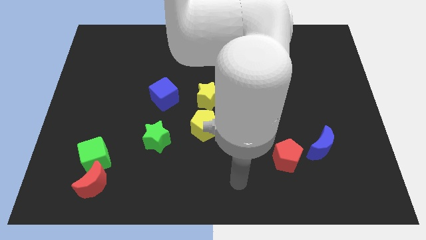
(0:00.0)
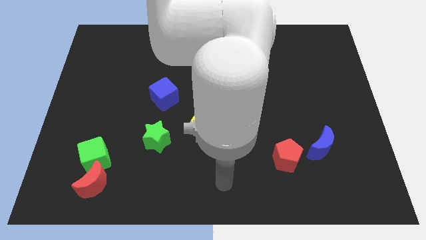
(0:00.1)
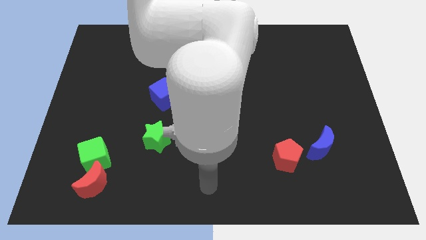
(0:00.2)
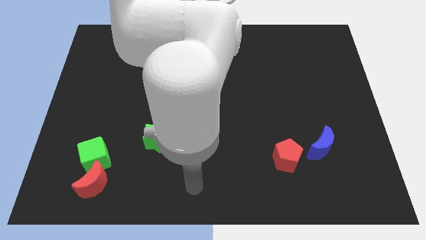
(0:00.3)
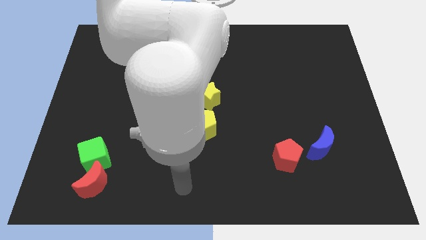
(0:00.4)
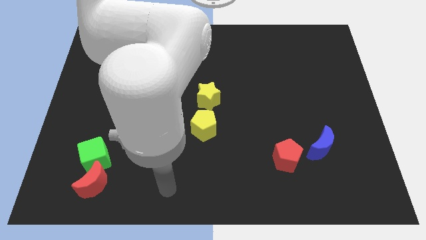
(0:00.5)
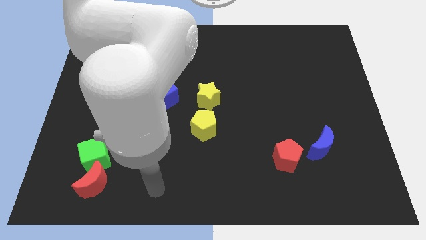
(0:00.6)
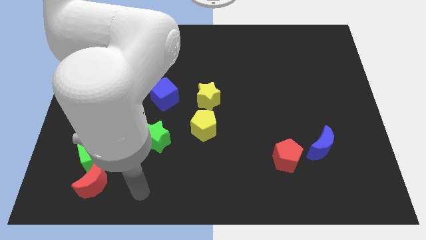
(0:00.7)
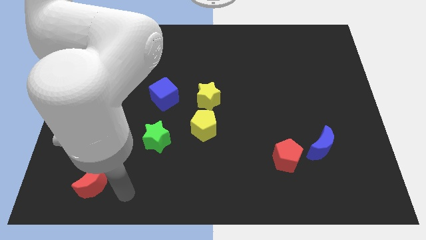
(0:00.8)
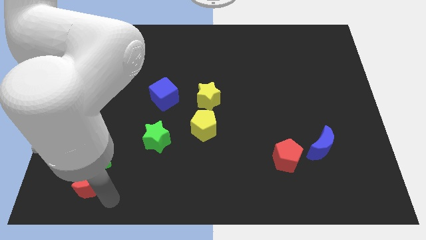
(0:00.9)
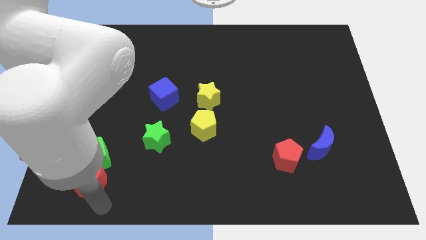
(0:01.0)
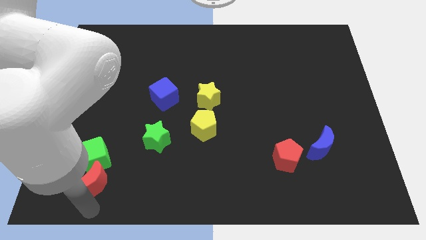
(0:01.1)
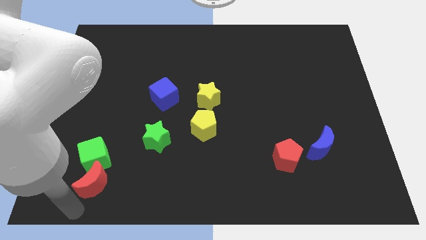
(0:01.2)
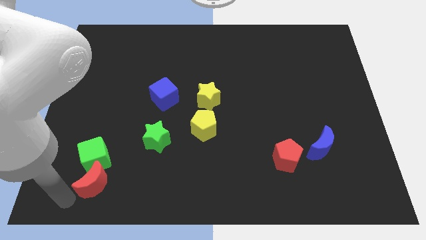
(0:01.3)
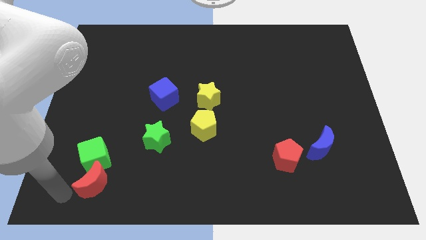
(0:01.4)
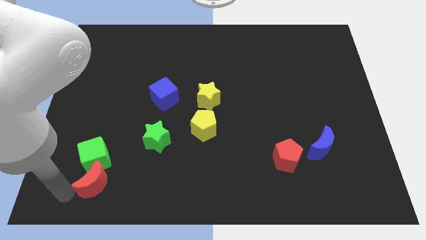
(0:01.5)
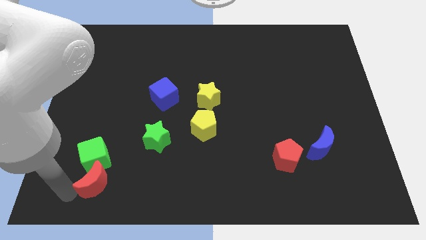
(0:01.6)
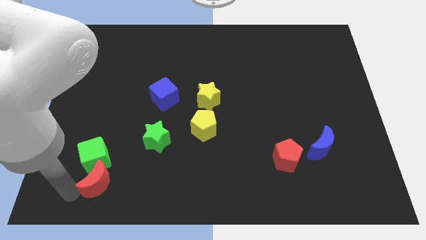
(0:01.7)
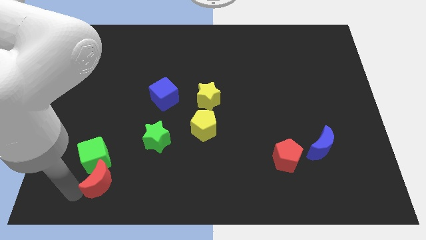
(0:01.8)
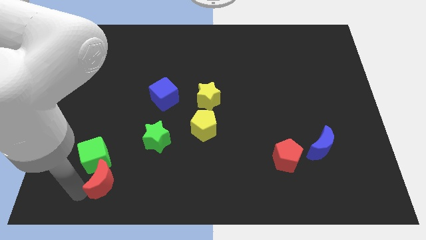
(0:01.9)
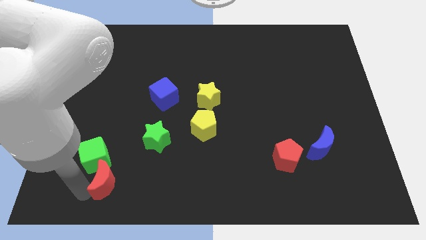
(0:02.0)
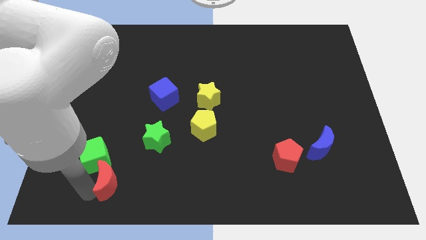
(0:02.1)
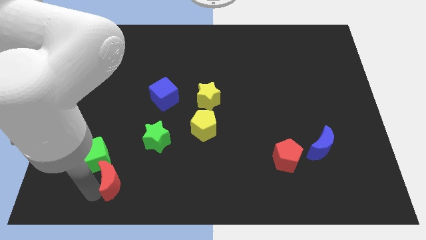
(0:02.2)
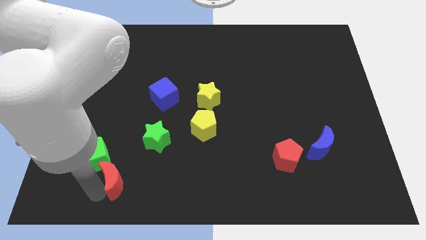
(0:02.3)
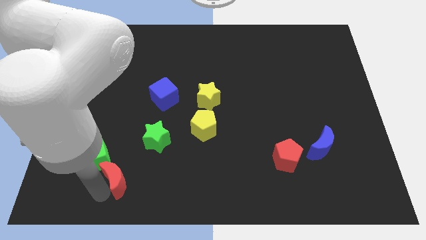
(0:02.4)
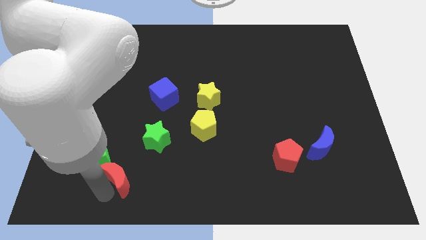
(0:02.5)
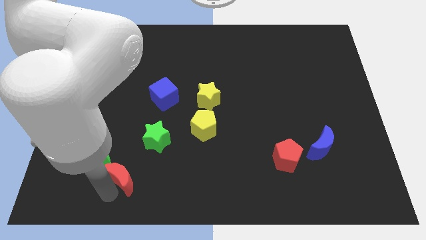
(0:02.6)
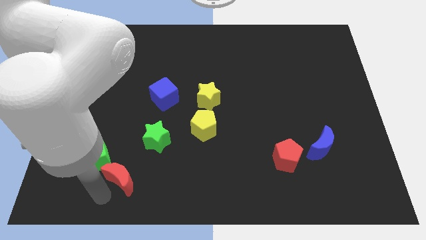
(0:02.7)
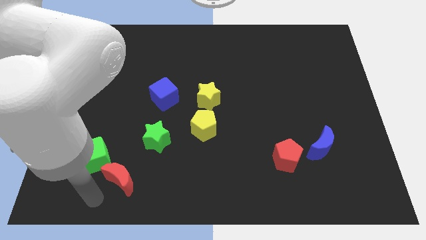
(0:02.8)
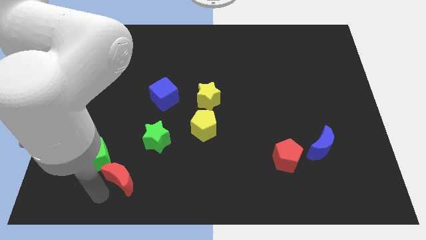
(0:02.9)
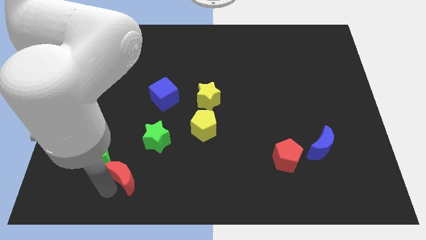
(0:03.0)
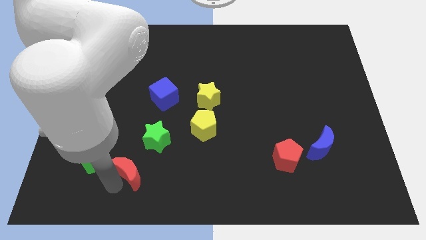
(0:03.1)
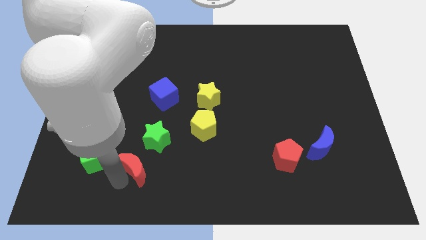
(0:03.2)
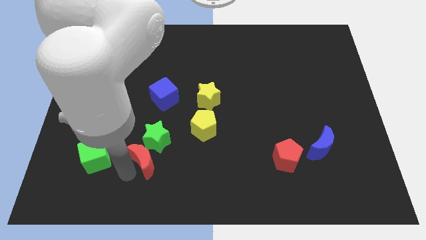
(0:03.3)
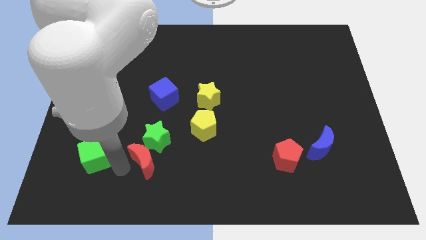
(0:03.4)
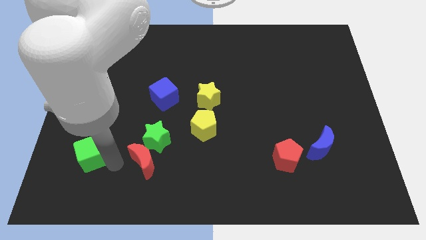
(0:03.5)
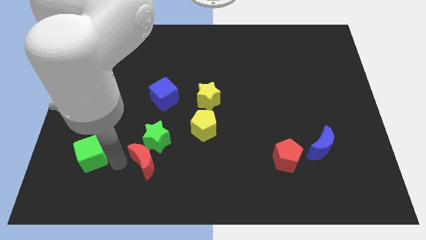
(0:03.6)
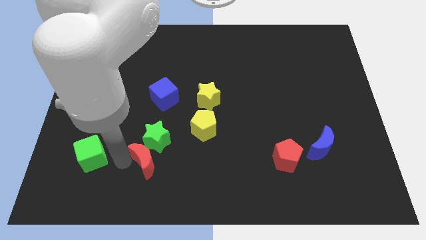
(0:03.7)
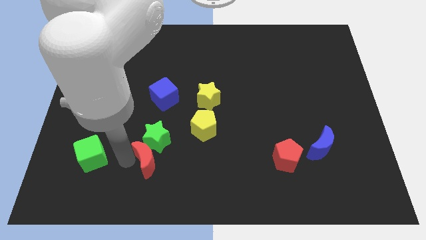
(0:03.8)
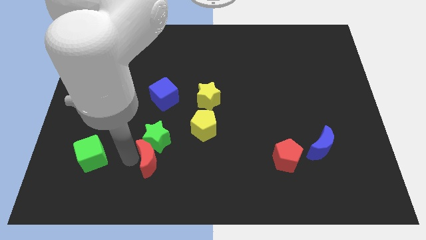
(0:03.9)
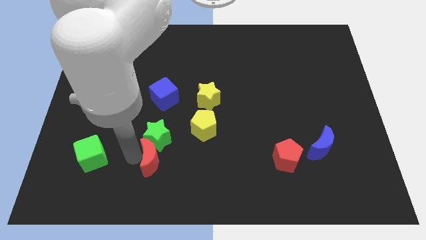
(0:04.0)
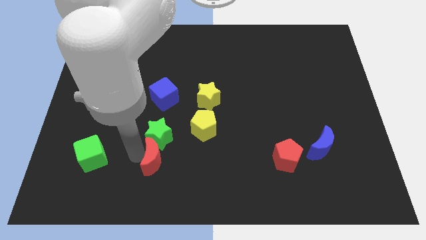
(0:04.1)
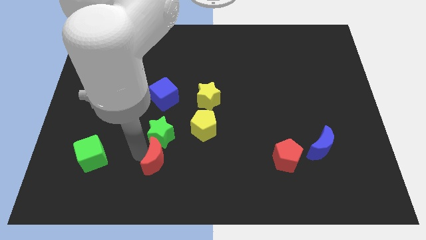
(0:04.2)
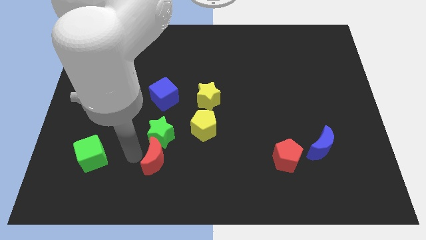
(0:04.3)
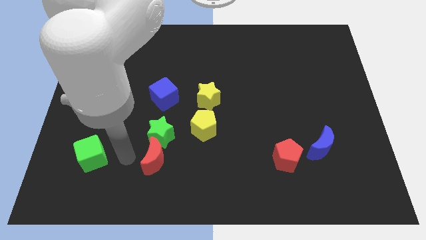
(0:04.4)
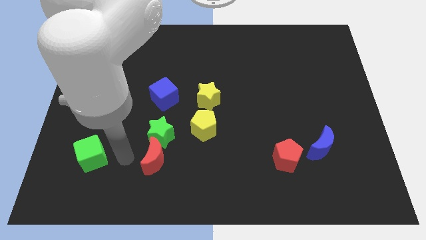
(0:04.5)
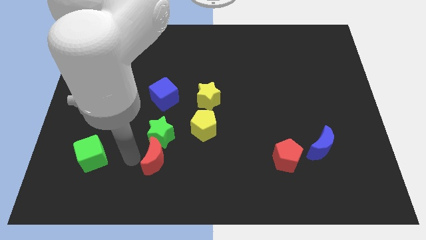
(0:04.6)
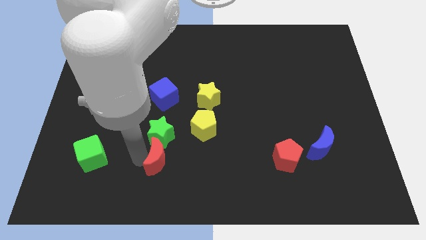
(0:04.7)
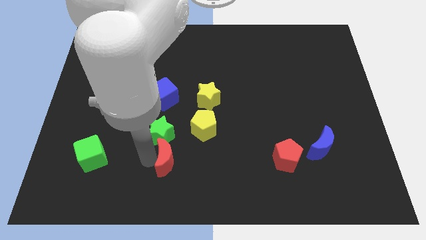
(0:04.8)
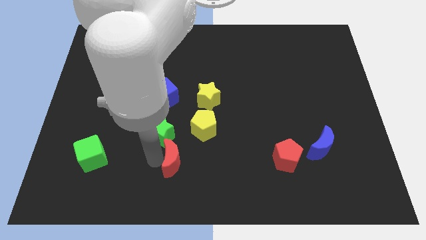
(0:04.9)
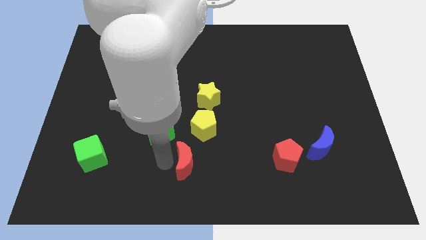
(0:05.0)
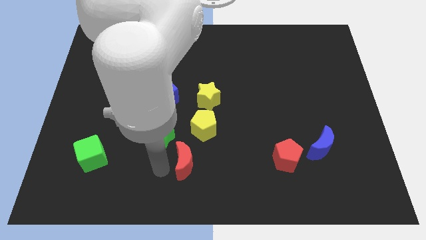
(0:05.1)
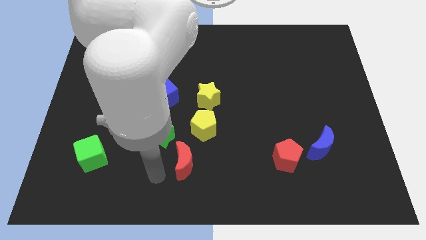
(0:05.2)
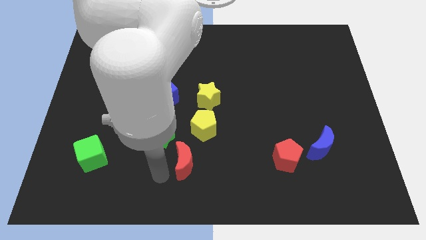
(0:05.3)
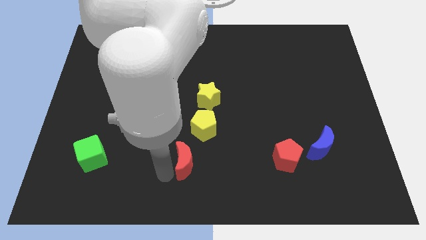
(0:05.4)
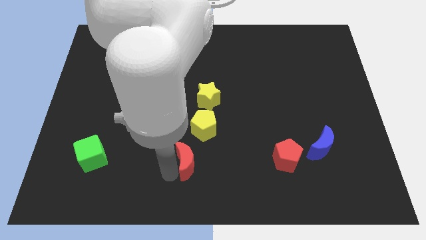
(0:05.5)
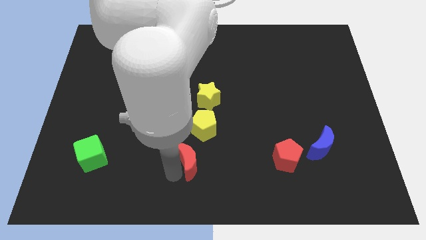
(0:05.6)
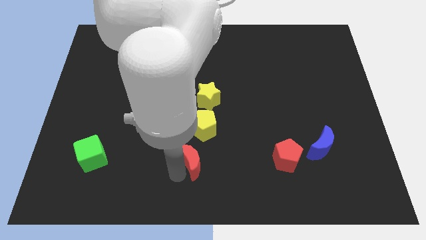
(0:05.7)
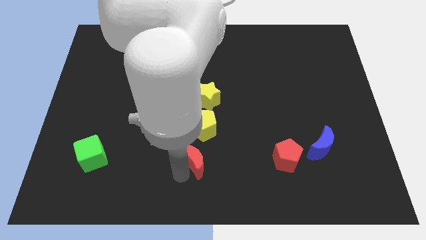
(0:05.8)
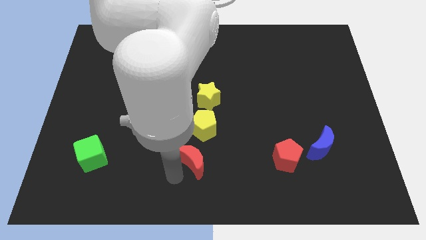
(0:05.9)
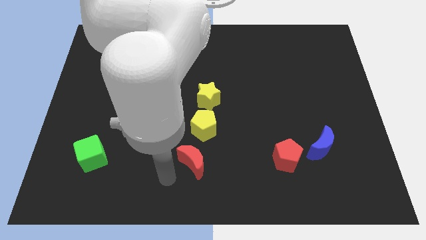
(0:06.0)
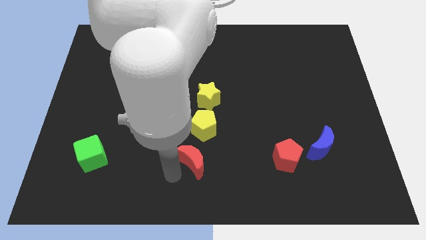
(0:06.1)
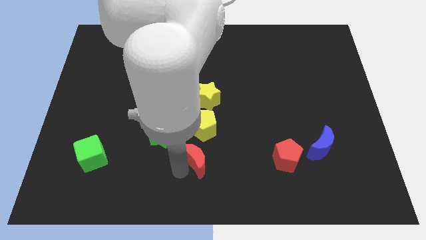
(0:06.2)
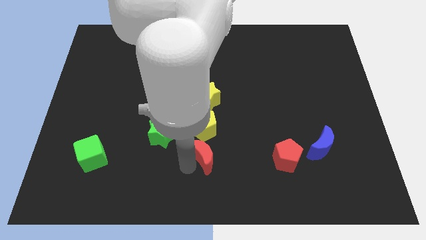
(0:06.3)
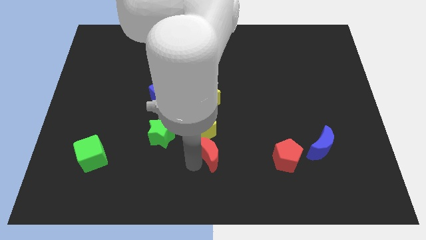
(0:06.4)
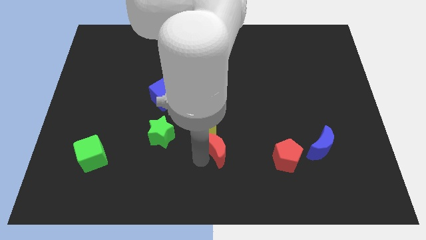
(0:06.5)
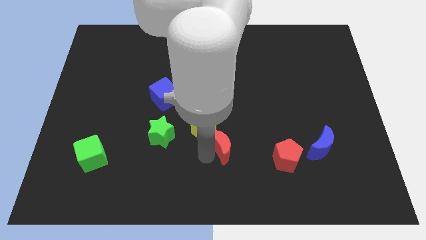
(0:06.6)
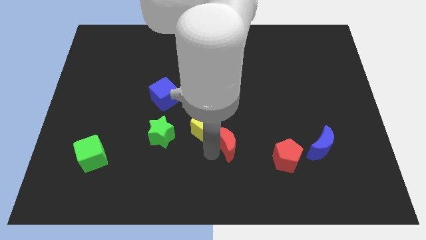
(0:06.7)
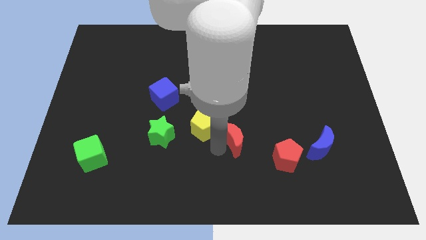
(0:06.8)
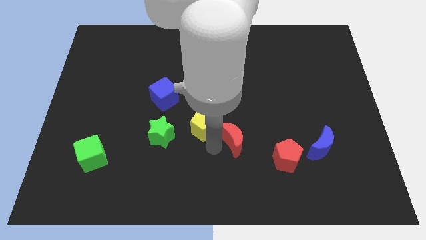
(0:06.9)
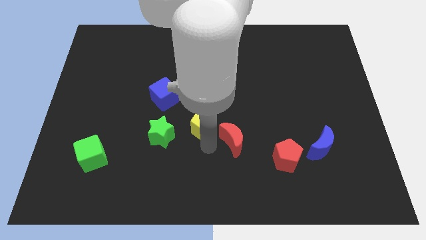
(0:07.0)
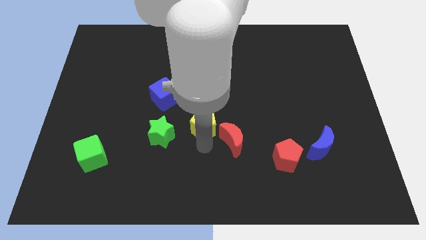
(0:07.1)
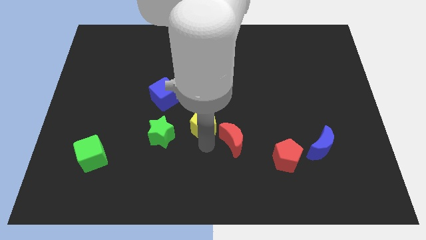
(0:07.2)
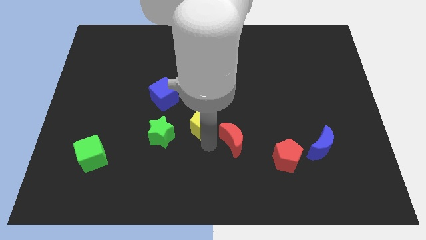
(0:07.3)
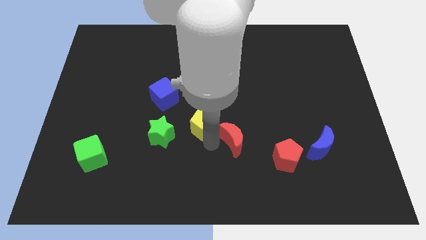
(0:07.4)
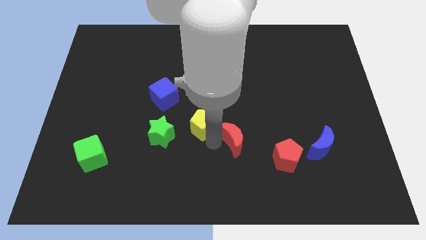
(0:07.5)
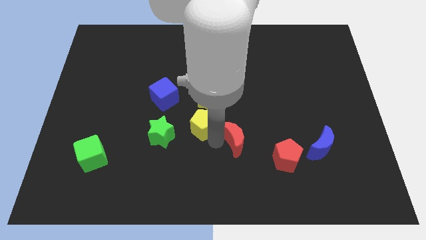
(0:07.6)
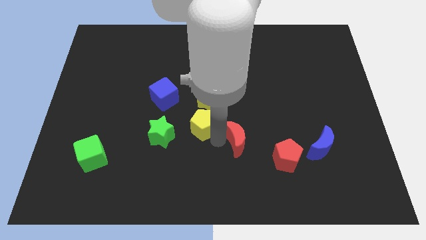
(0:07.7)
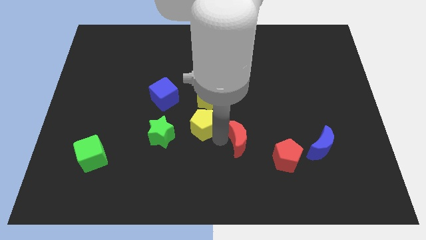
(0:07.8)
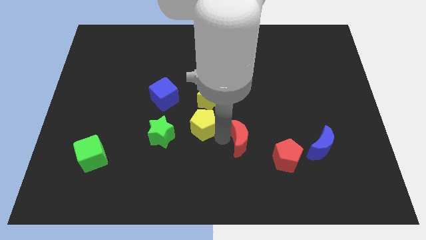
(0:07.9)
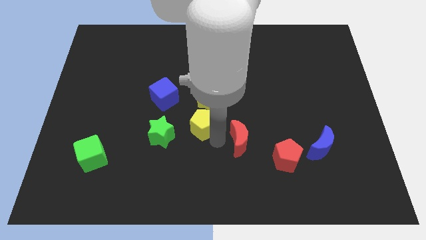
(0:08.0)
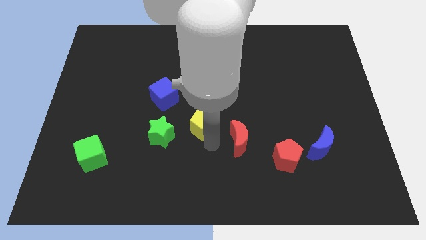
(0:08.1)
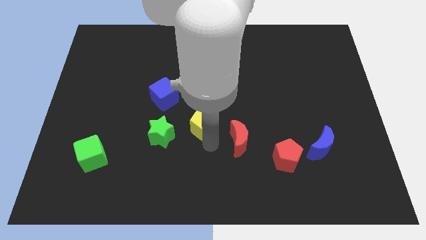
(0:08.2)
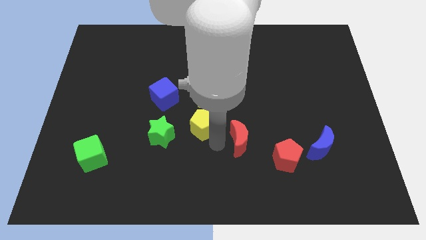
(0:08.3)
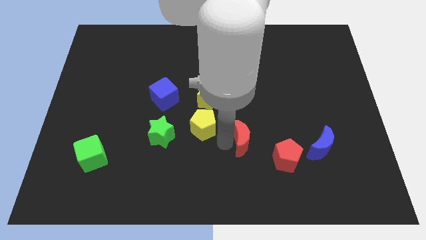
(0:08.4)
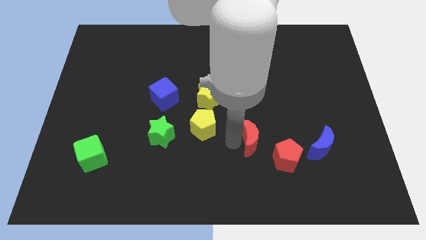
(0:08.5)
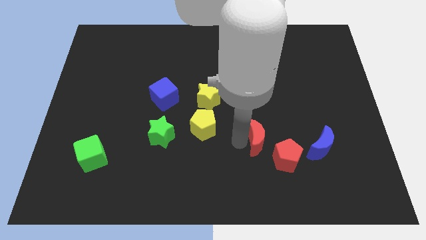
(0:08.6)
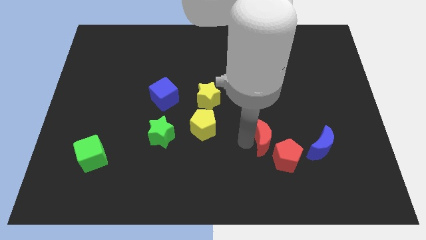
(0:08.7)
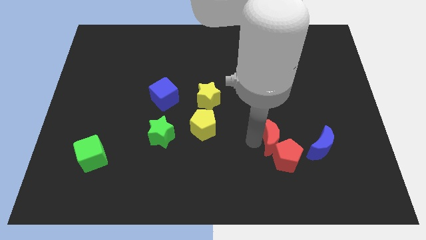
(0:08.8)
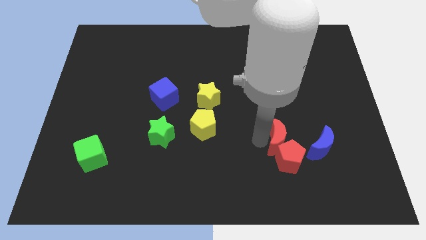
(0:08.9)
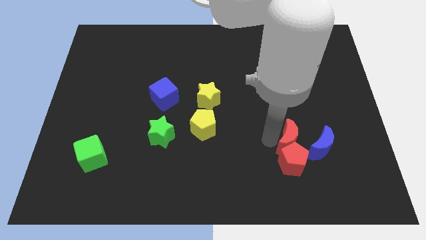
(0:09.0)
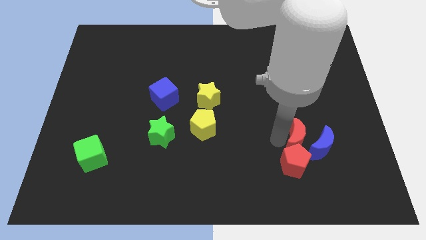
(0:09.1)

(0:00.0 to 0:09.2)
slide the red moon to the blue moon
